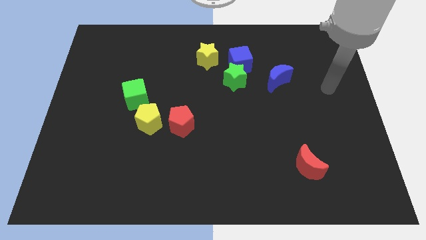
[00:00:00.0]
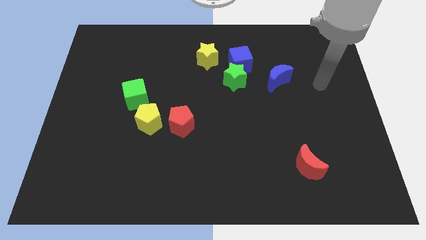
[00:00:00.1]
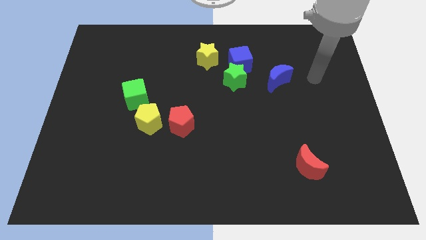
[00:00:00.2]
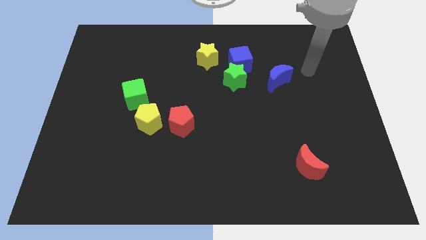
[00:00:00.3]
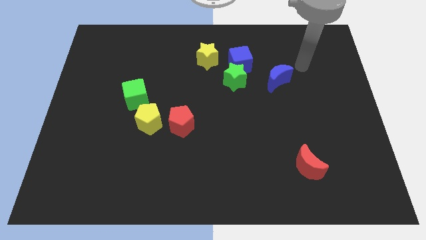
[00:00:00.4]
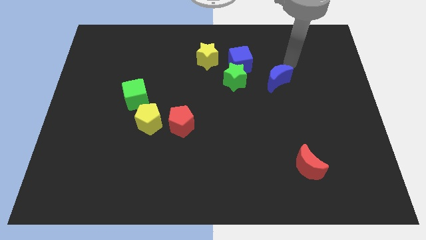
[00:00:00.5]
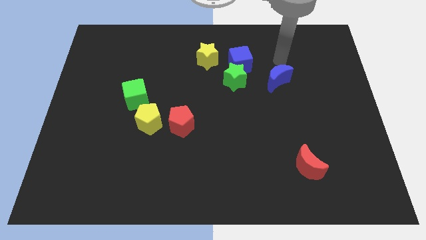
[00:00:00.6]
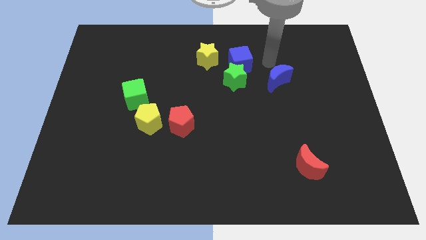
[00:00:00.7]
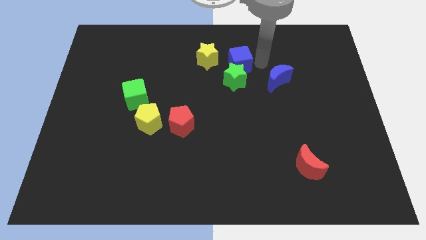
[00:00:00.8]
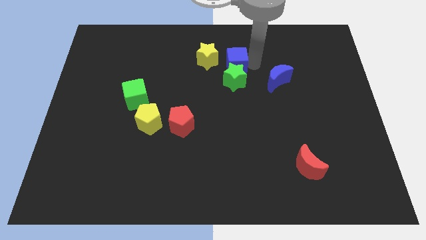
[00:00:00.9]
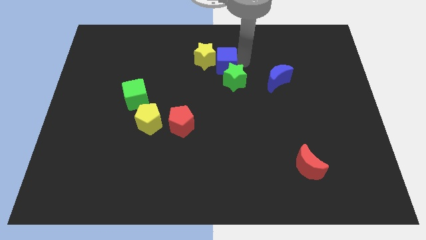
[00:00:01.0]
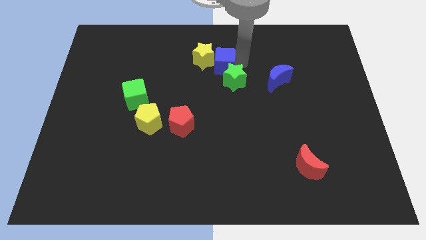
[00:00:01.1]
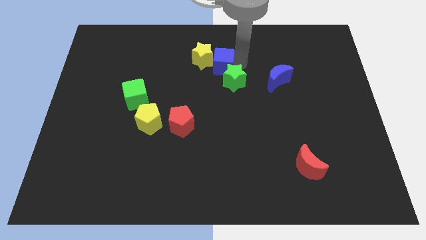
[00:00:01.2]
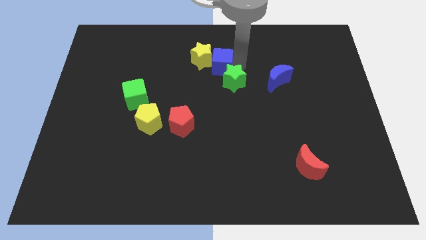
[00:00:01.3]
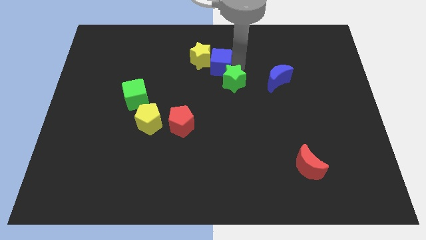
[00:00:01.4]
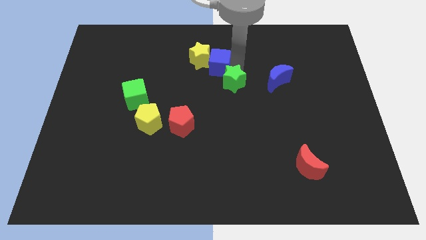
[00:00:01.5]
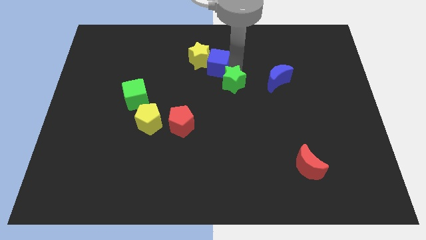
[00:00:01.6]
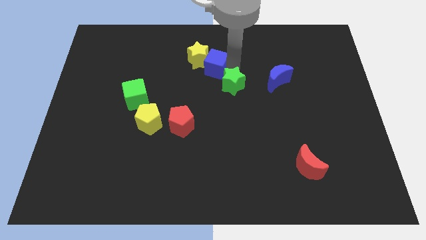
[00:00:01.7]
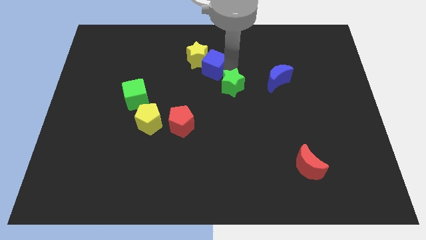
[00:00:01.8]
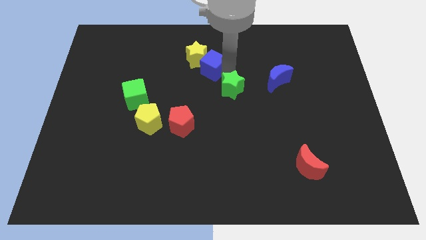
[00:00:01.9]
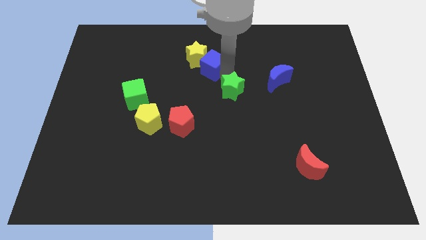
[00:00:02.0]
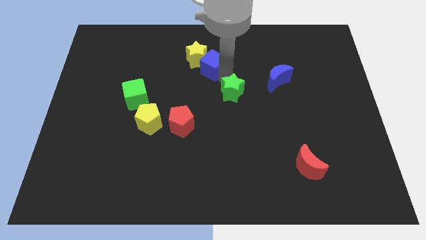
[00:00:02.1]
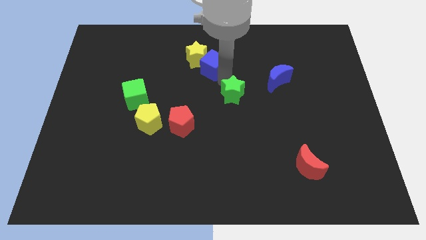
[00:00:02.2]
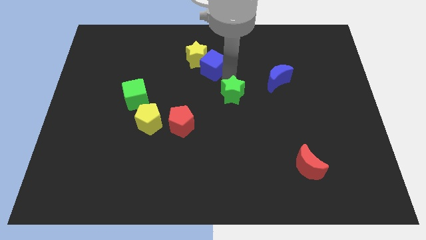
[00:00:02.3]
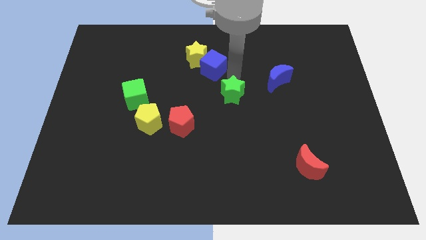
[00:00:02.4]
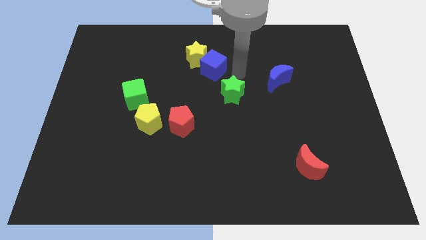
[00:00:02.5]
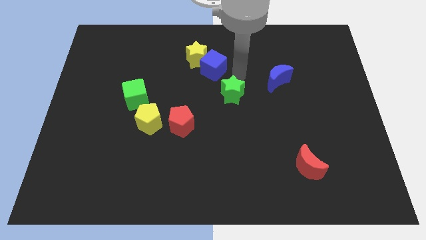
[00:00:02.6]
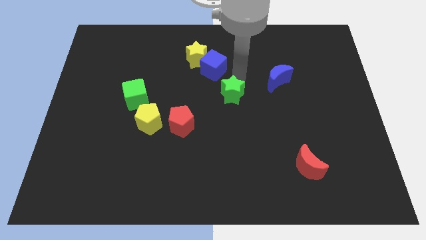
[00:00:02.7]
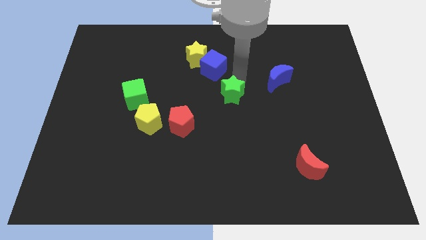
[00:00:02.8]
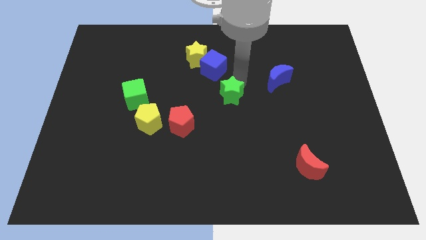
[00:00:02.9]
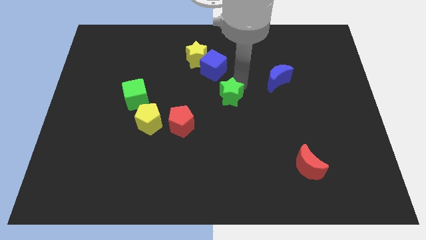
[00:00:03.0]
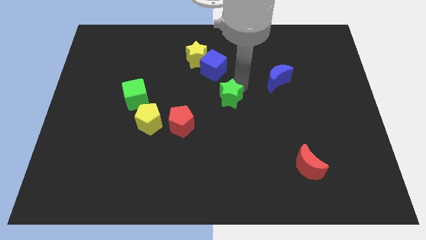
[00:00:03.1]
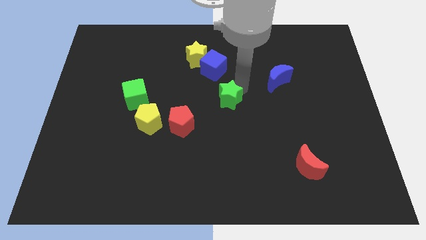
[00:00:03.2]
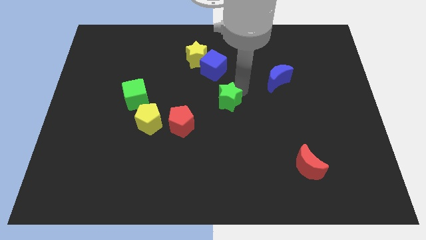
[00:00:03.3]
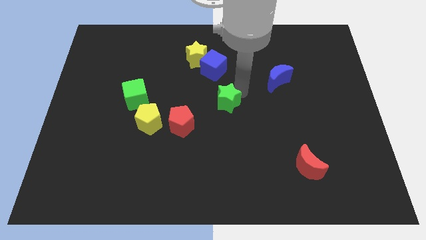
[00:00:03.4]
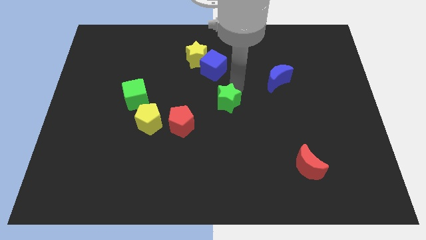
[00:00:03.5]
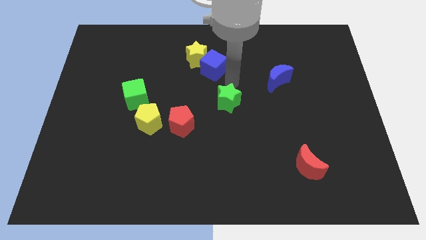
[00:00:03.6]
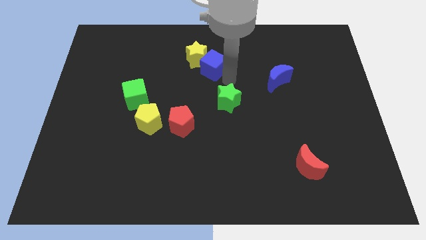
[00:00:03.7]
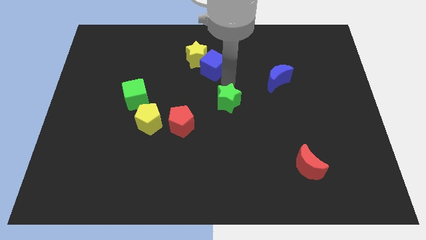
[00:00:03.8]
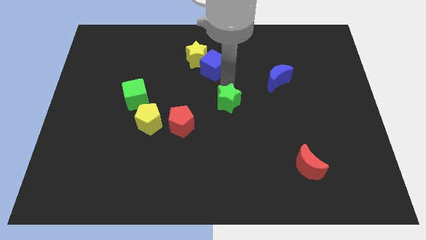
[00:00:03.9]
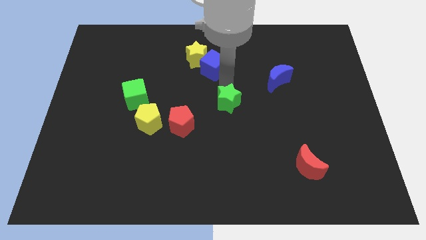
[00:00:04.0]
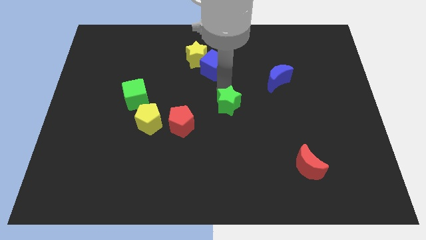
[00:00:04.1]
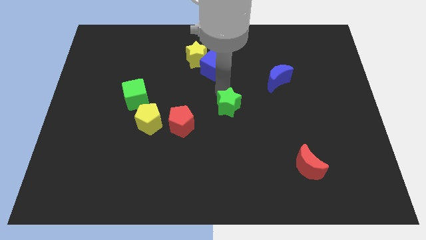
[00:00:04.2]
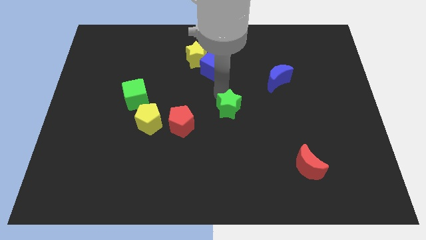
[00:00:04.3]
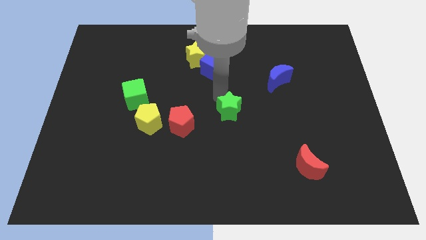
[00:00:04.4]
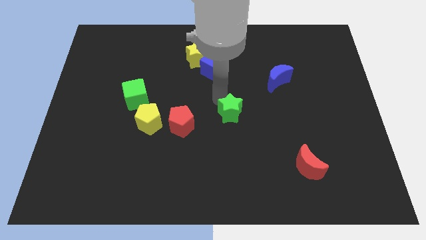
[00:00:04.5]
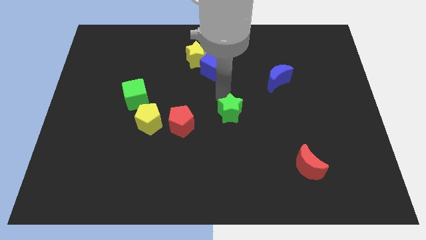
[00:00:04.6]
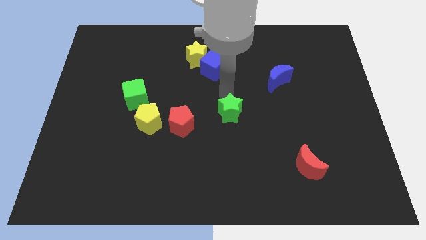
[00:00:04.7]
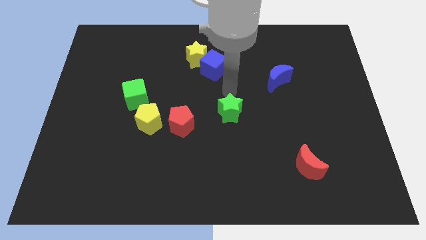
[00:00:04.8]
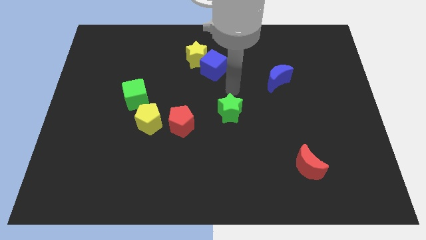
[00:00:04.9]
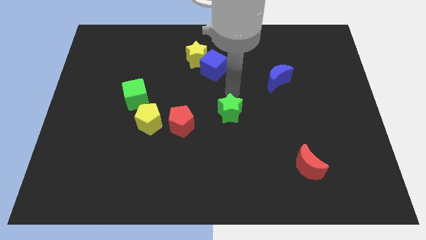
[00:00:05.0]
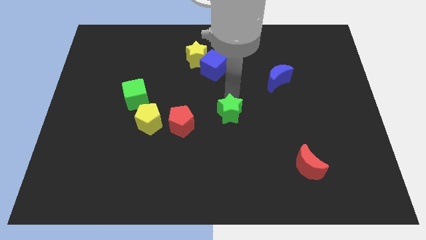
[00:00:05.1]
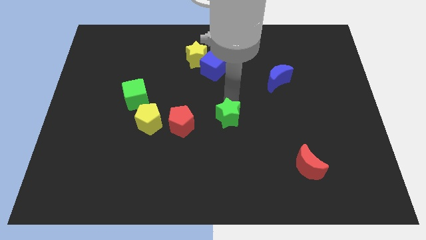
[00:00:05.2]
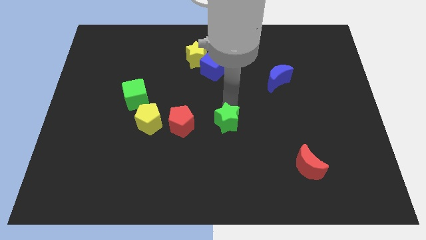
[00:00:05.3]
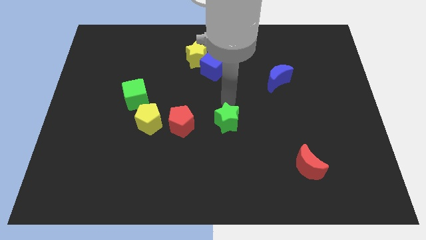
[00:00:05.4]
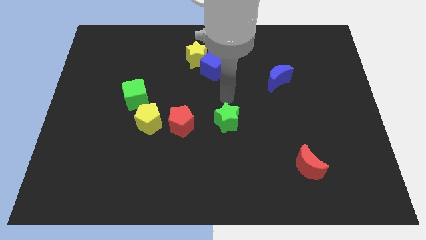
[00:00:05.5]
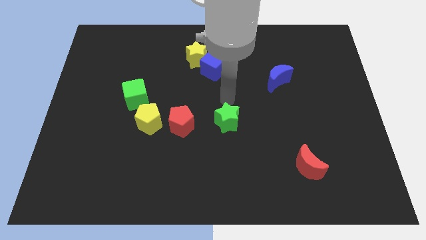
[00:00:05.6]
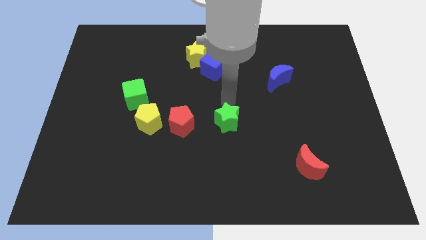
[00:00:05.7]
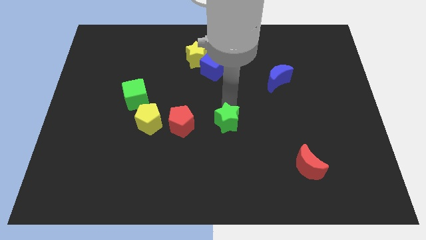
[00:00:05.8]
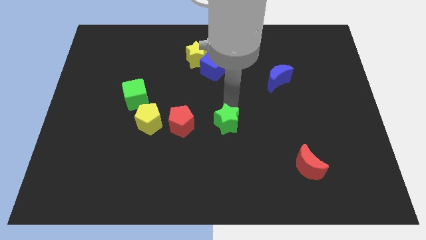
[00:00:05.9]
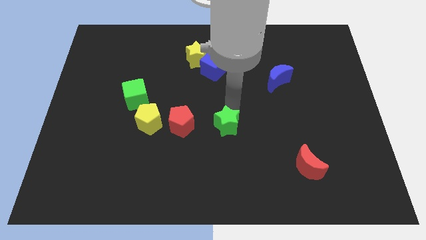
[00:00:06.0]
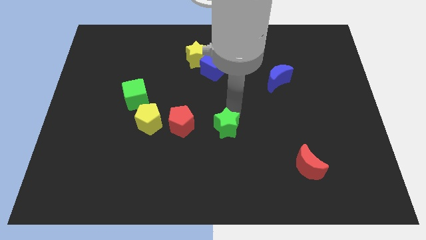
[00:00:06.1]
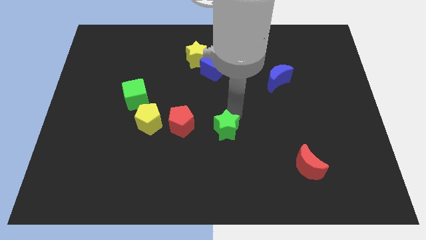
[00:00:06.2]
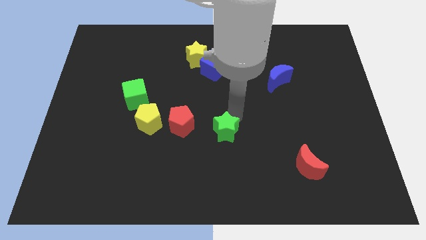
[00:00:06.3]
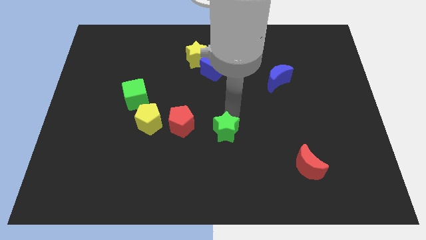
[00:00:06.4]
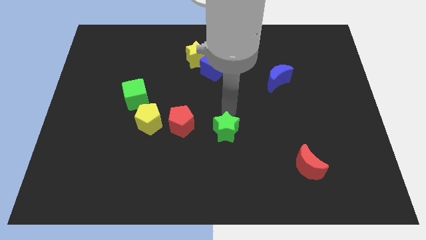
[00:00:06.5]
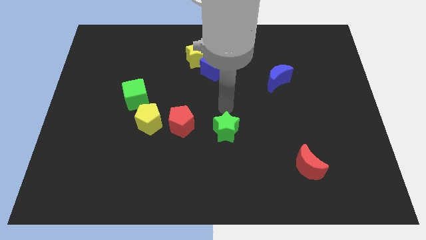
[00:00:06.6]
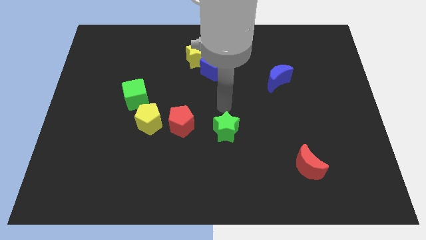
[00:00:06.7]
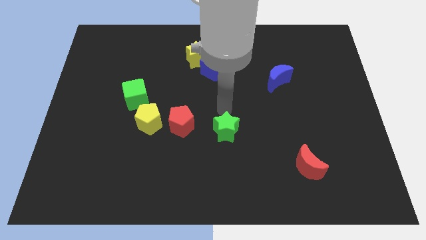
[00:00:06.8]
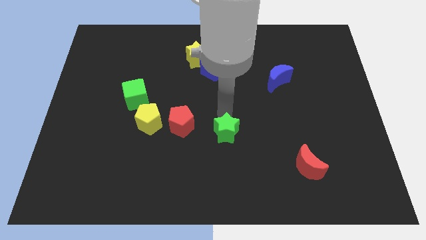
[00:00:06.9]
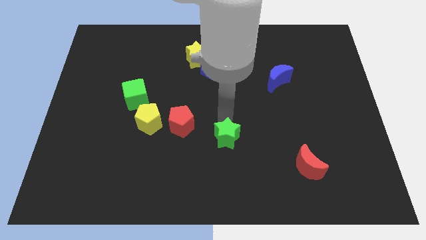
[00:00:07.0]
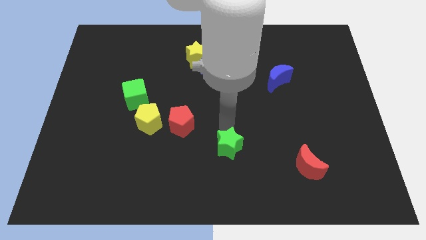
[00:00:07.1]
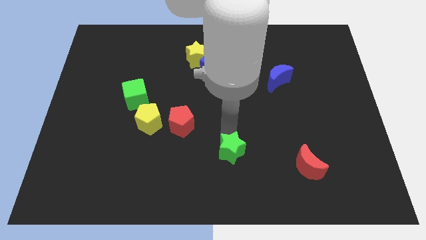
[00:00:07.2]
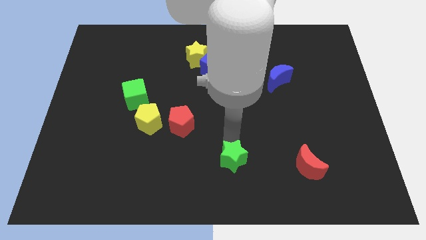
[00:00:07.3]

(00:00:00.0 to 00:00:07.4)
put the green star to the bottom
